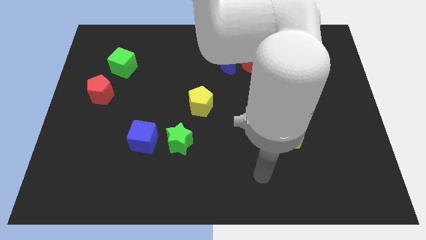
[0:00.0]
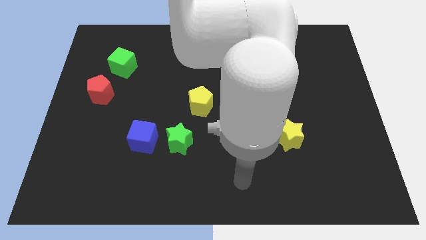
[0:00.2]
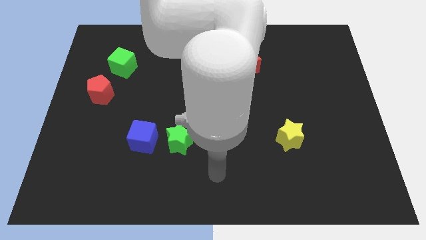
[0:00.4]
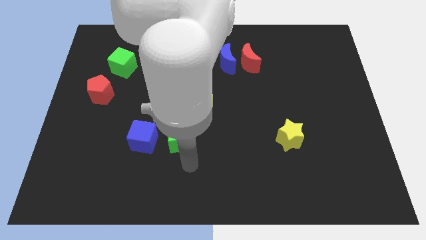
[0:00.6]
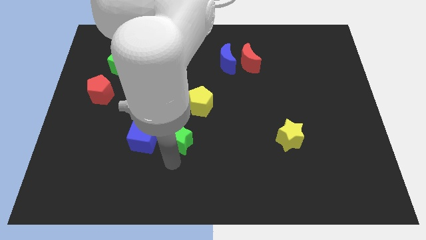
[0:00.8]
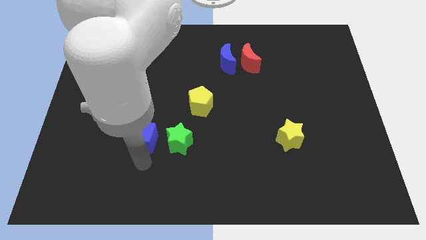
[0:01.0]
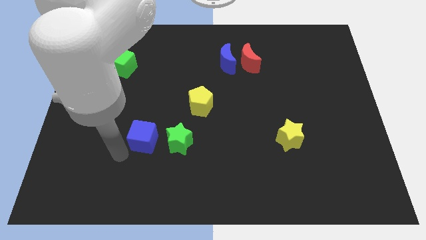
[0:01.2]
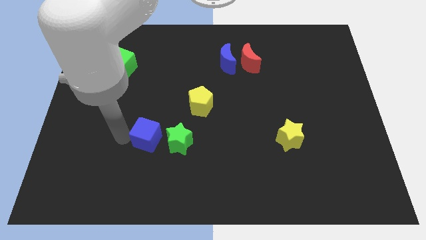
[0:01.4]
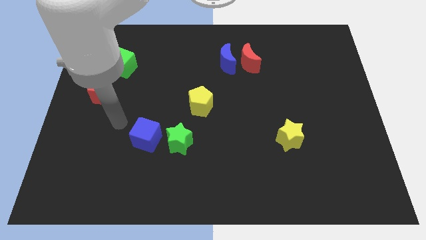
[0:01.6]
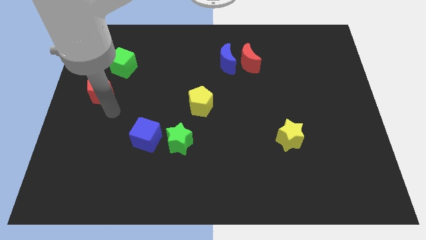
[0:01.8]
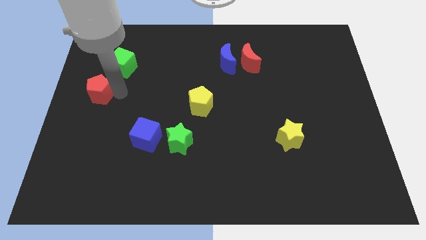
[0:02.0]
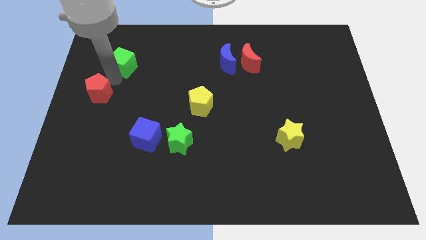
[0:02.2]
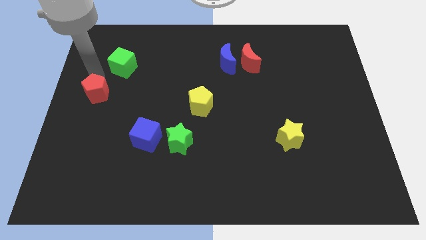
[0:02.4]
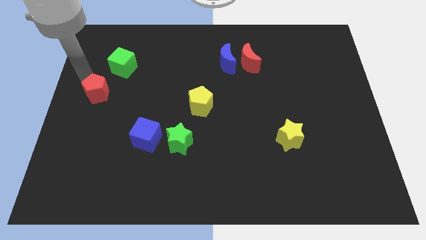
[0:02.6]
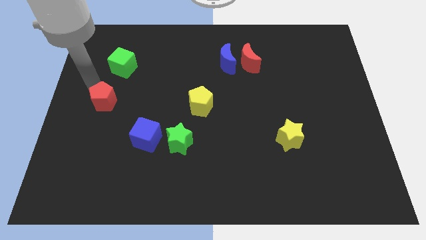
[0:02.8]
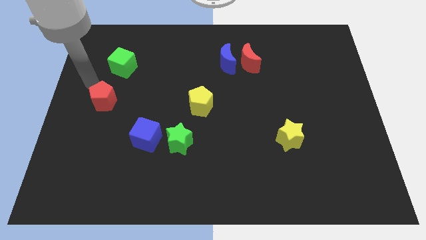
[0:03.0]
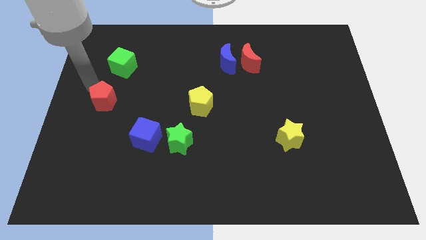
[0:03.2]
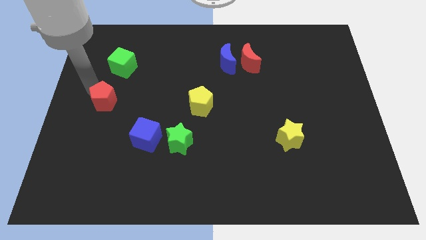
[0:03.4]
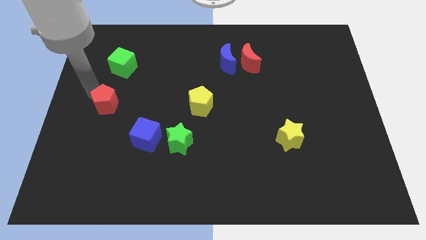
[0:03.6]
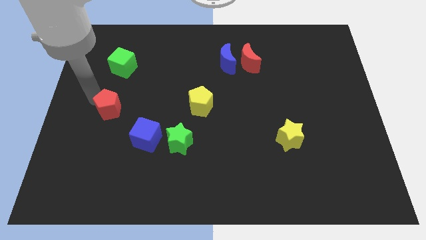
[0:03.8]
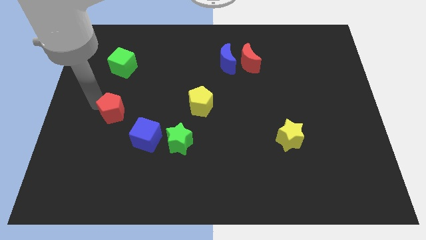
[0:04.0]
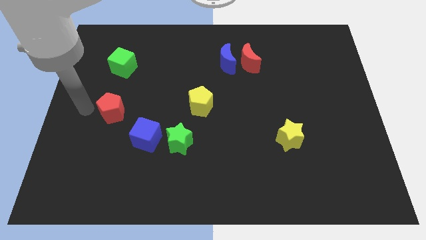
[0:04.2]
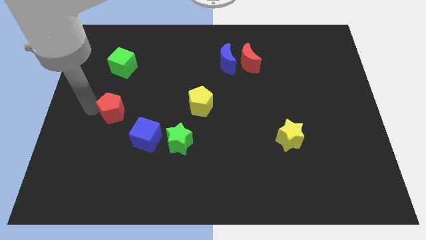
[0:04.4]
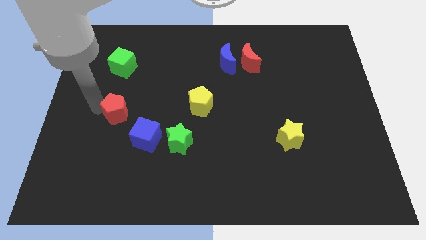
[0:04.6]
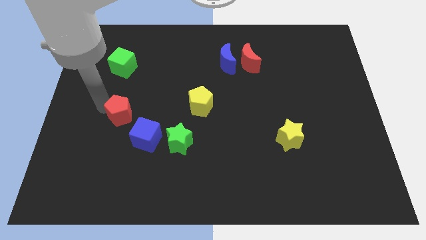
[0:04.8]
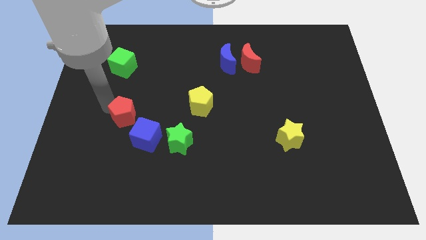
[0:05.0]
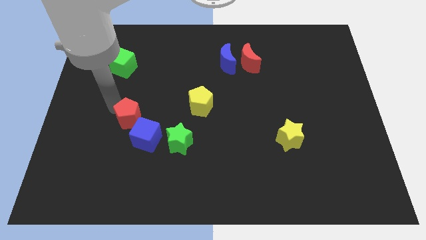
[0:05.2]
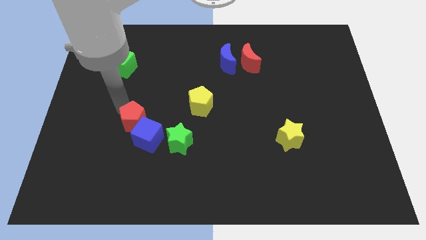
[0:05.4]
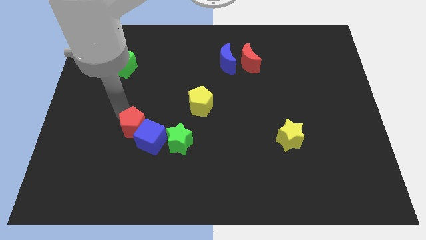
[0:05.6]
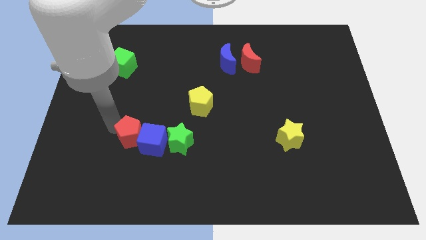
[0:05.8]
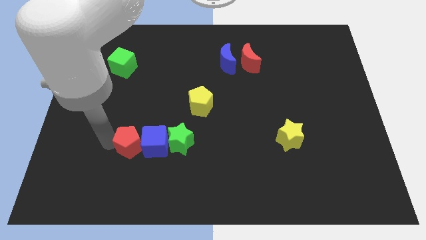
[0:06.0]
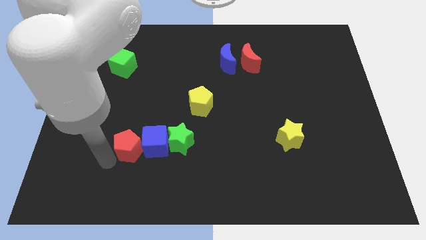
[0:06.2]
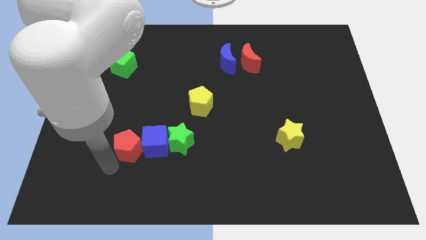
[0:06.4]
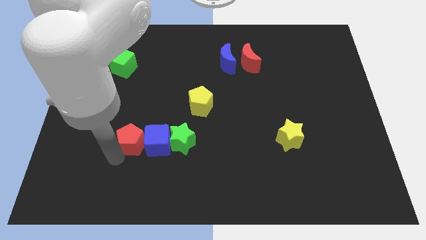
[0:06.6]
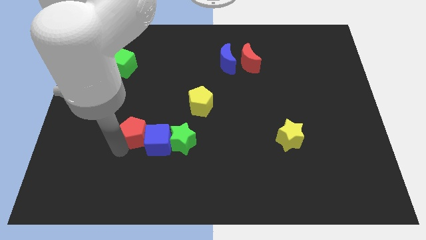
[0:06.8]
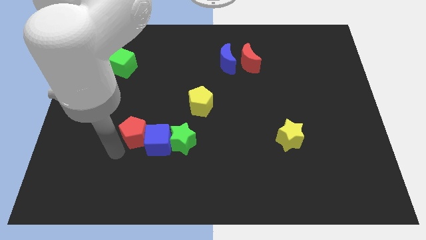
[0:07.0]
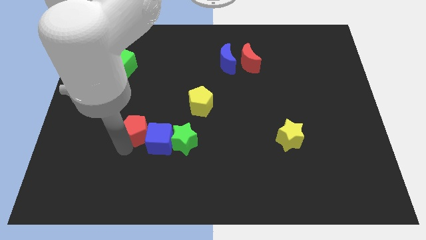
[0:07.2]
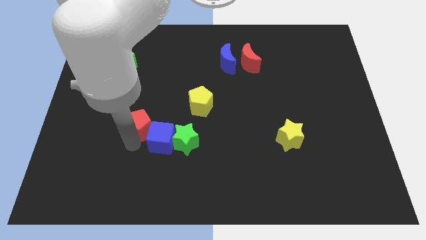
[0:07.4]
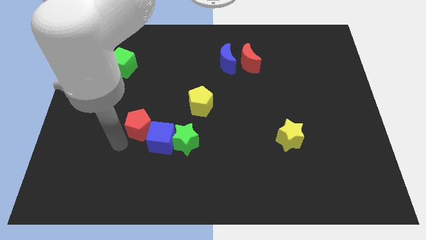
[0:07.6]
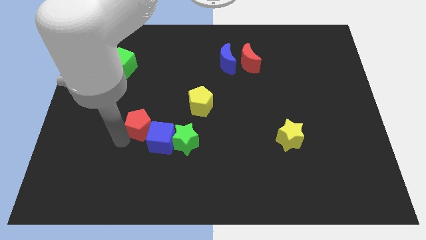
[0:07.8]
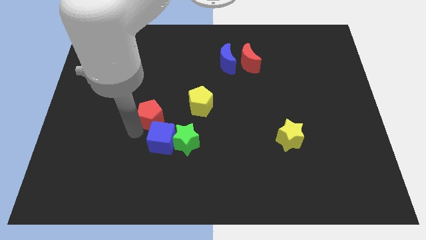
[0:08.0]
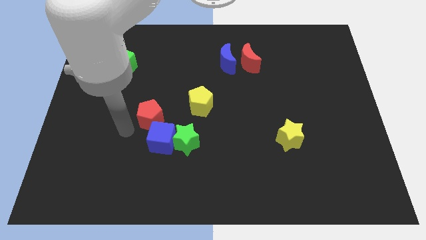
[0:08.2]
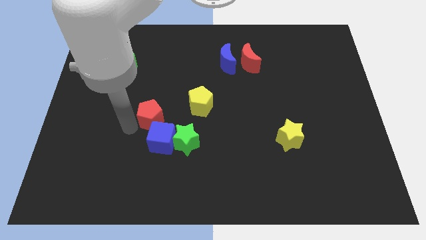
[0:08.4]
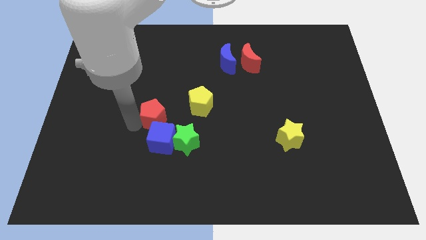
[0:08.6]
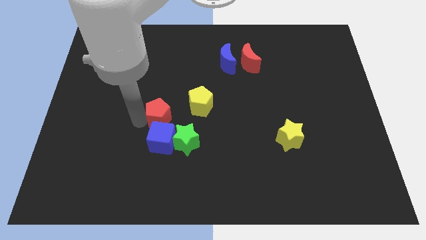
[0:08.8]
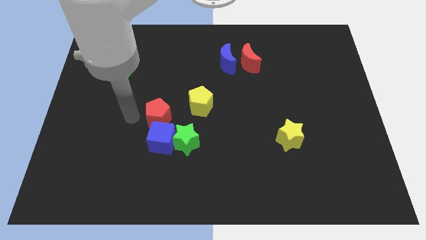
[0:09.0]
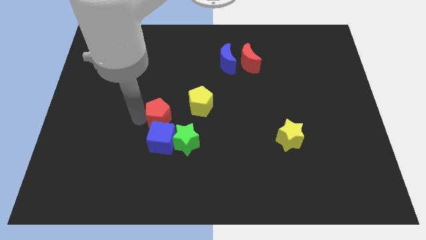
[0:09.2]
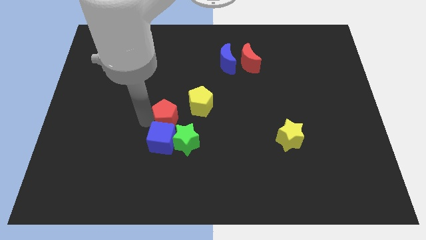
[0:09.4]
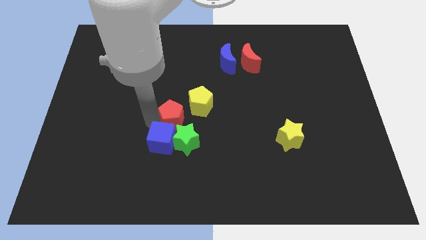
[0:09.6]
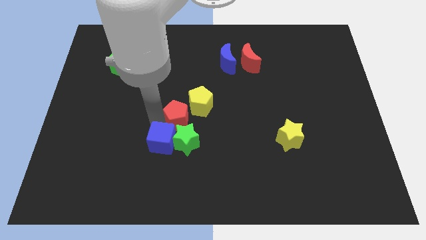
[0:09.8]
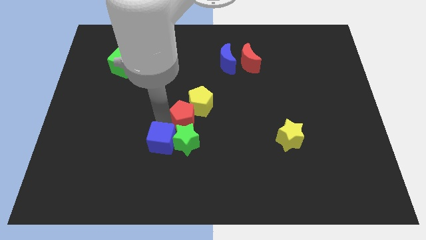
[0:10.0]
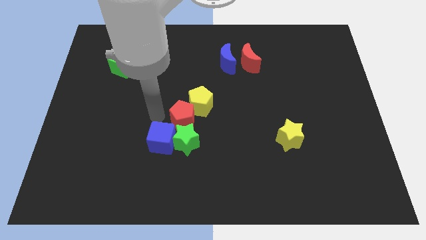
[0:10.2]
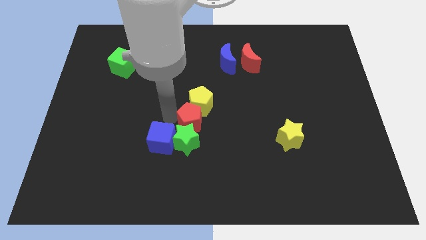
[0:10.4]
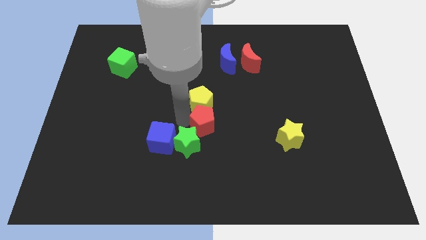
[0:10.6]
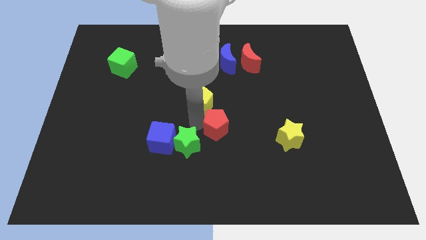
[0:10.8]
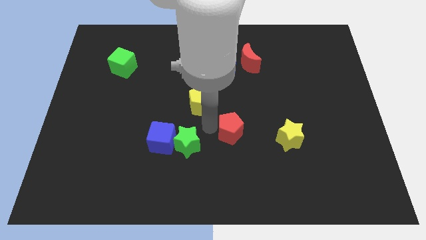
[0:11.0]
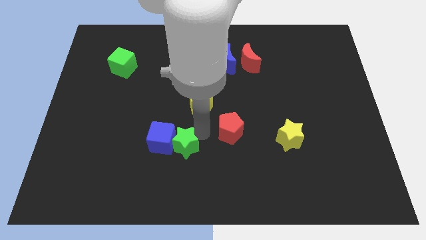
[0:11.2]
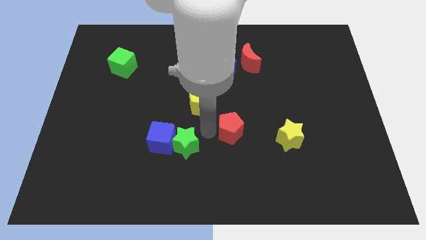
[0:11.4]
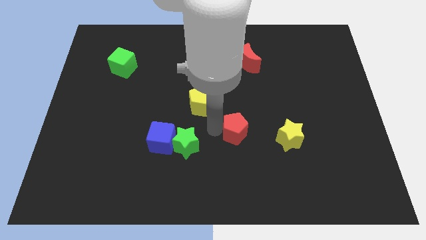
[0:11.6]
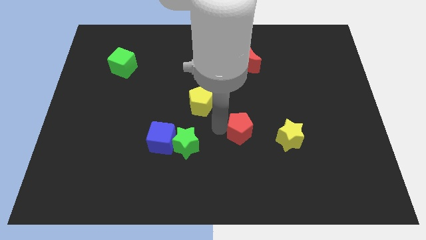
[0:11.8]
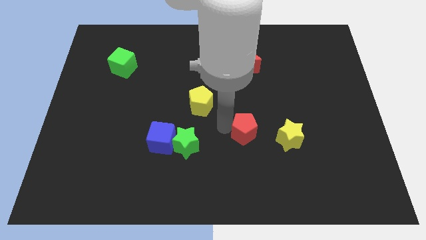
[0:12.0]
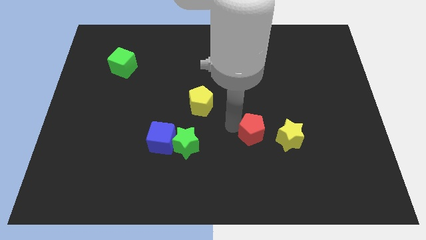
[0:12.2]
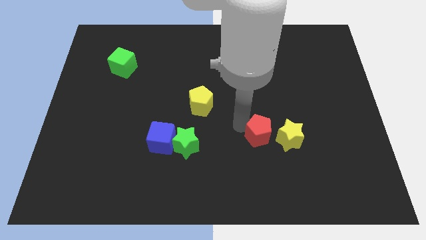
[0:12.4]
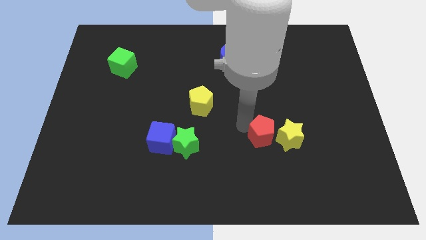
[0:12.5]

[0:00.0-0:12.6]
put the red pentagon towards the yellow star
